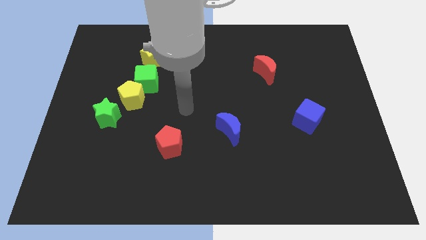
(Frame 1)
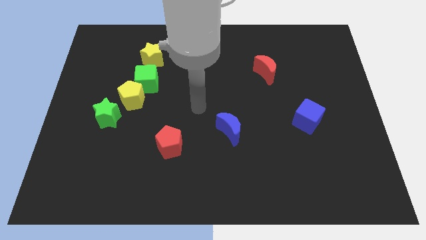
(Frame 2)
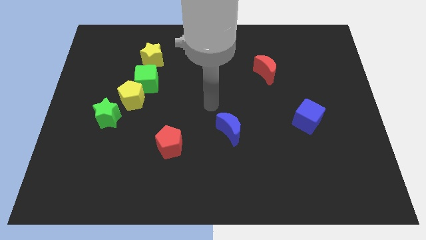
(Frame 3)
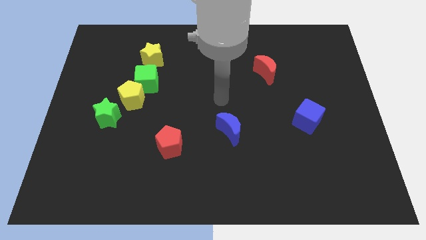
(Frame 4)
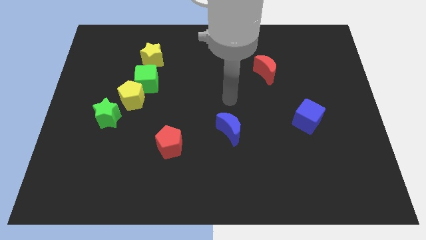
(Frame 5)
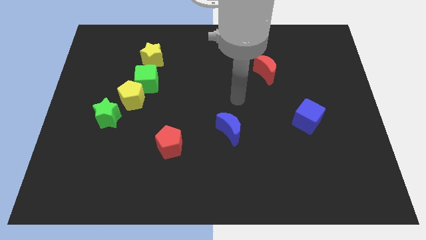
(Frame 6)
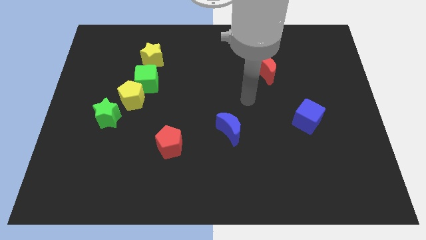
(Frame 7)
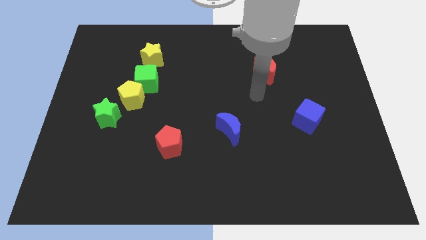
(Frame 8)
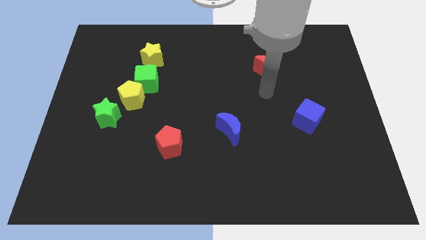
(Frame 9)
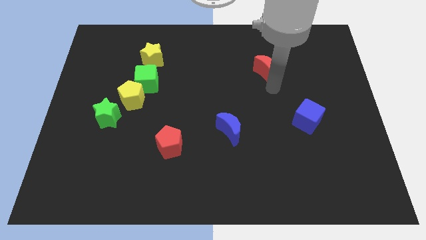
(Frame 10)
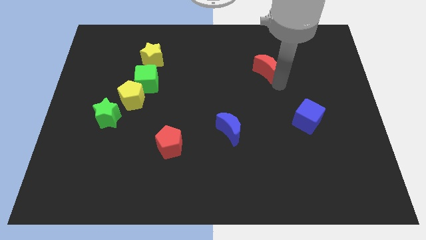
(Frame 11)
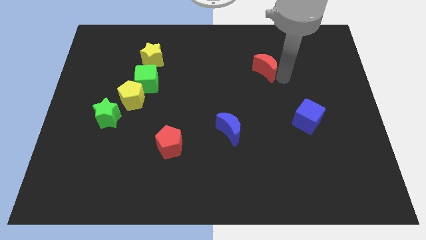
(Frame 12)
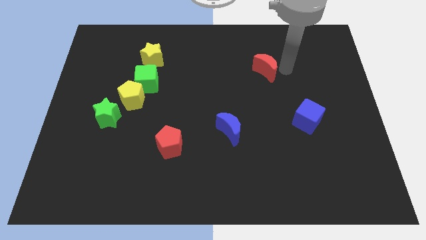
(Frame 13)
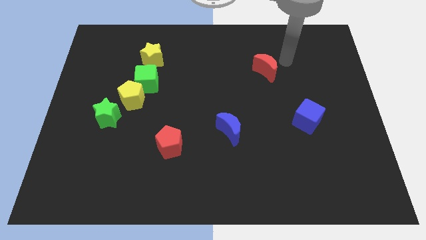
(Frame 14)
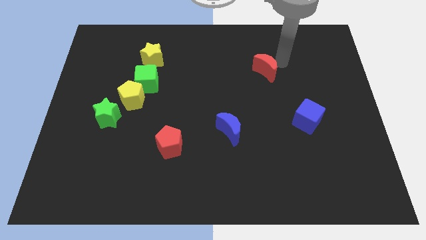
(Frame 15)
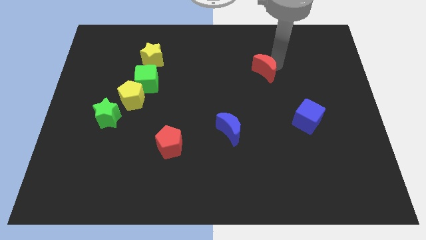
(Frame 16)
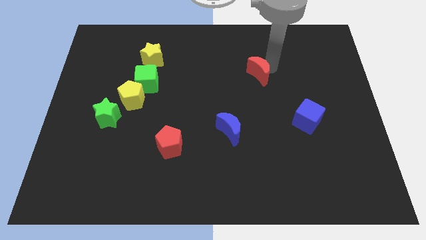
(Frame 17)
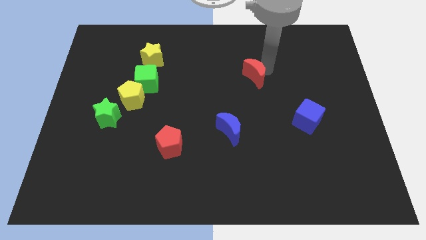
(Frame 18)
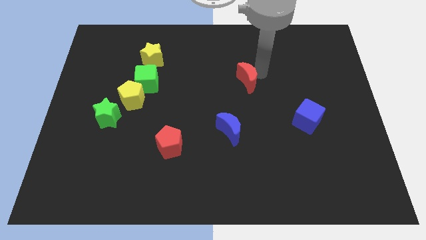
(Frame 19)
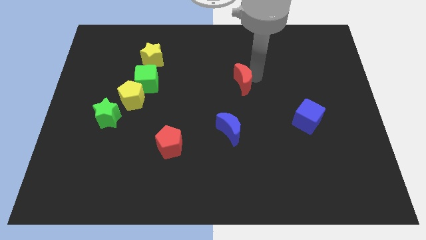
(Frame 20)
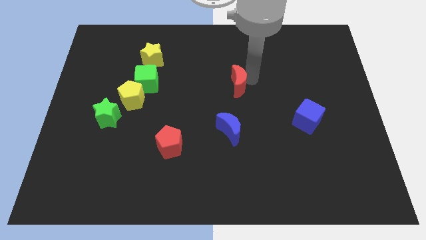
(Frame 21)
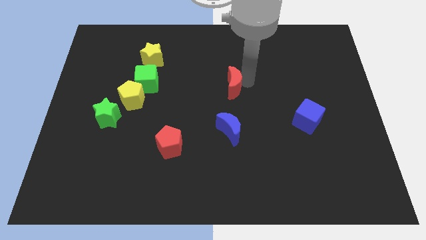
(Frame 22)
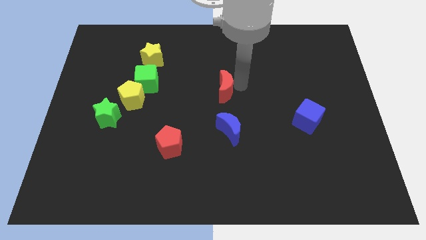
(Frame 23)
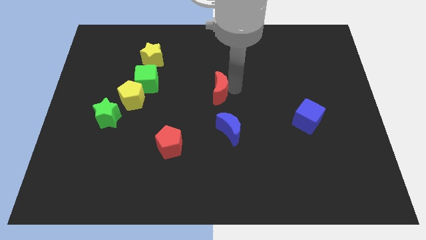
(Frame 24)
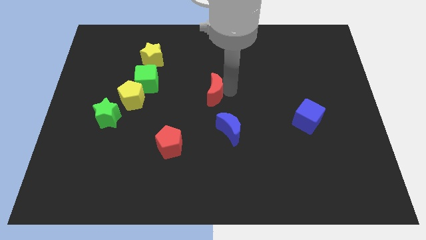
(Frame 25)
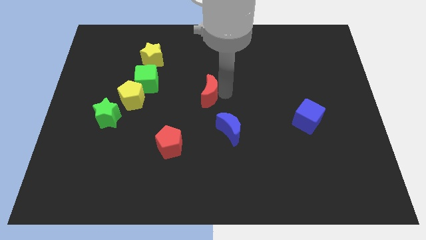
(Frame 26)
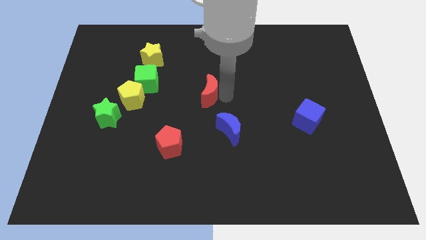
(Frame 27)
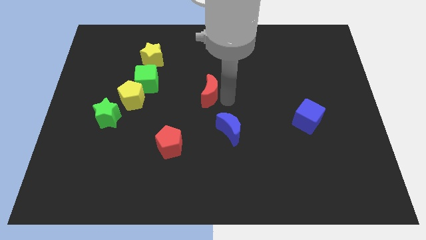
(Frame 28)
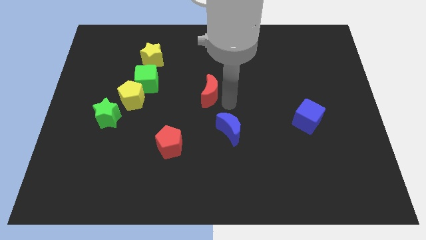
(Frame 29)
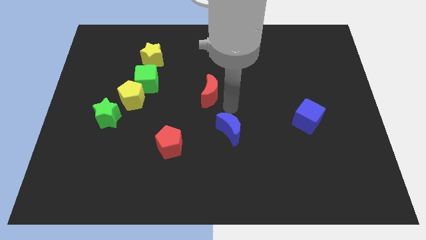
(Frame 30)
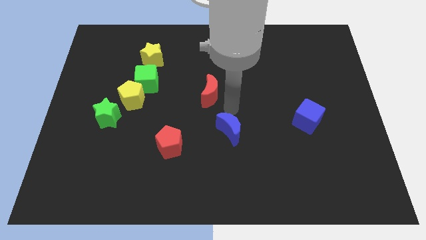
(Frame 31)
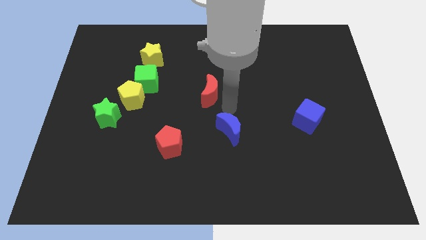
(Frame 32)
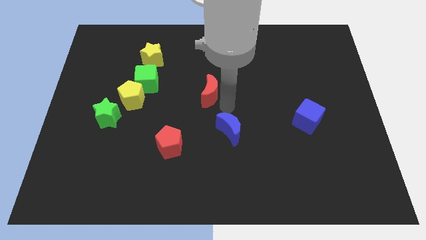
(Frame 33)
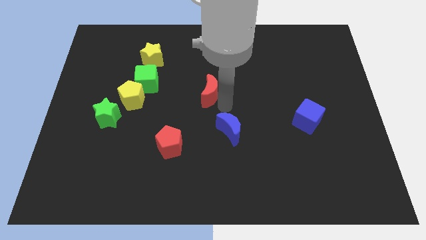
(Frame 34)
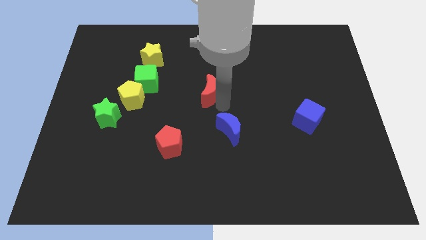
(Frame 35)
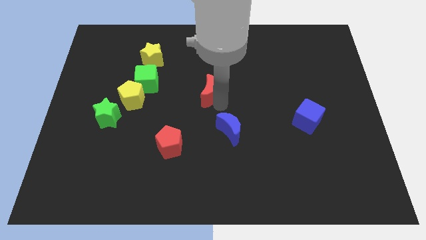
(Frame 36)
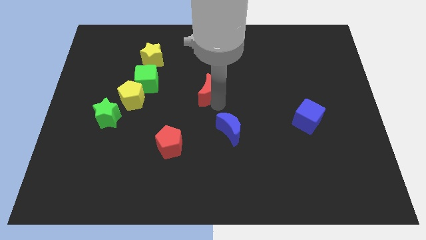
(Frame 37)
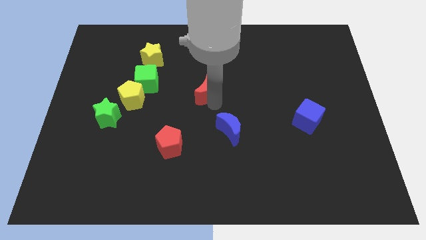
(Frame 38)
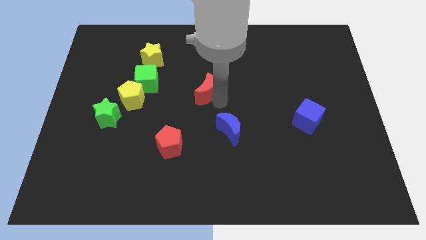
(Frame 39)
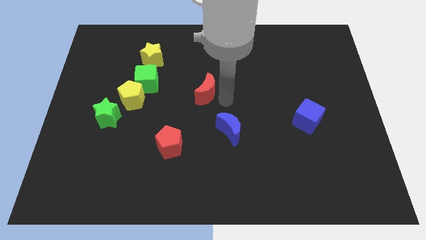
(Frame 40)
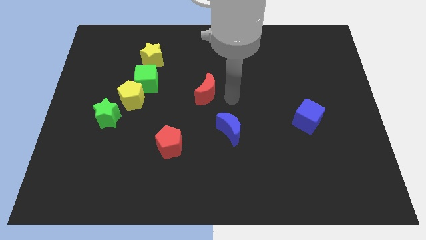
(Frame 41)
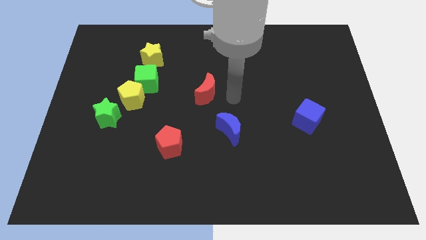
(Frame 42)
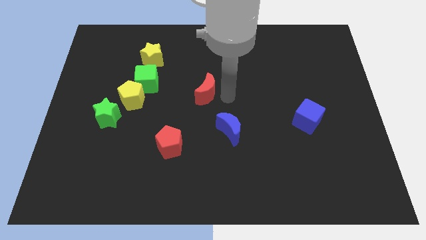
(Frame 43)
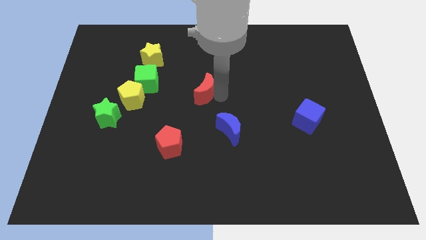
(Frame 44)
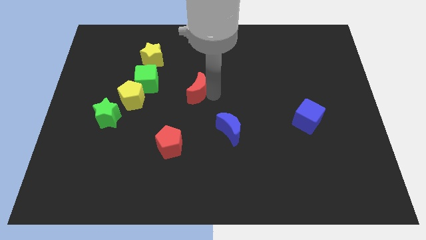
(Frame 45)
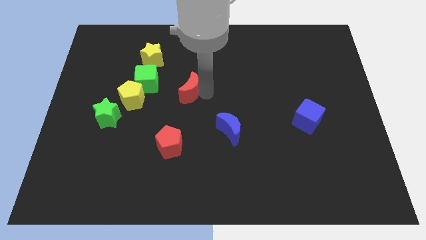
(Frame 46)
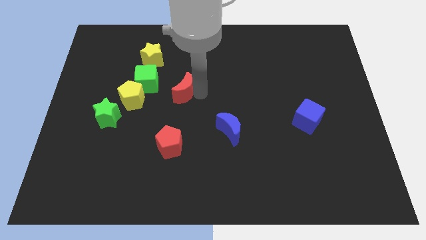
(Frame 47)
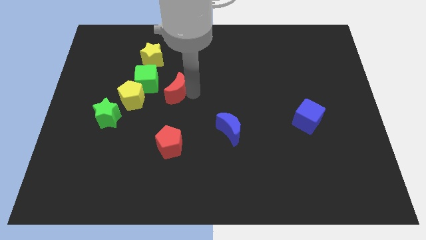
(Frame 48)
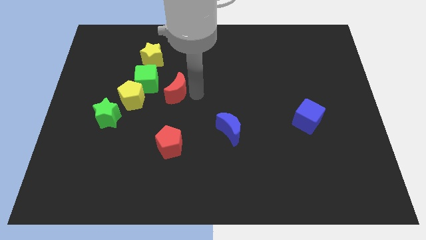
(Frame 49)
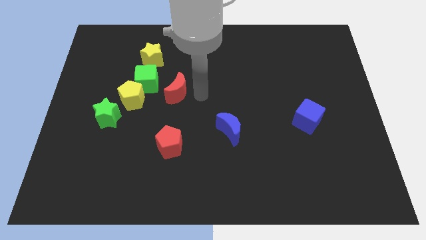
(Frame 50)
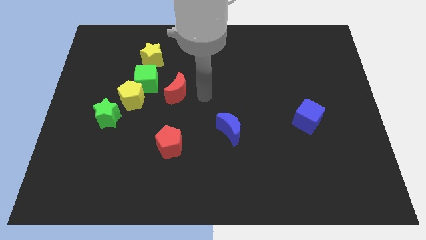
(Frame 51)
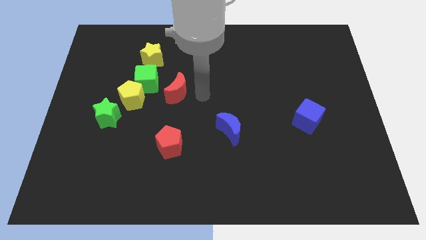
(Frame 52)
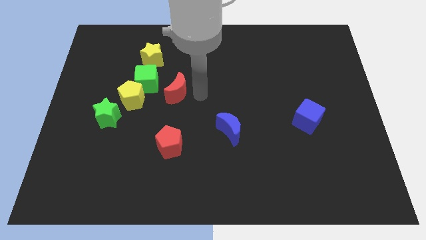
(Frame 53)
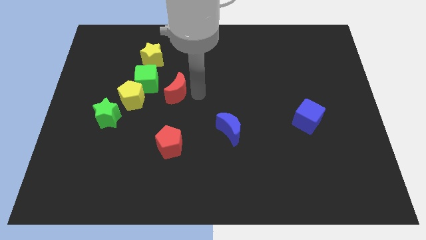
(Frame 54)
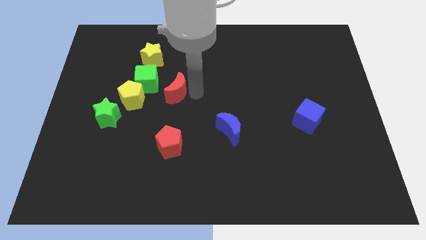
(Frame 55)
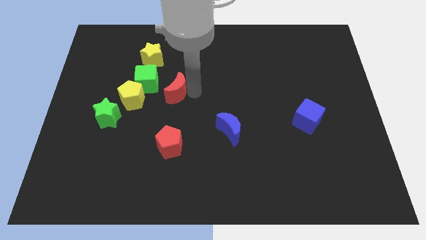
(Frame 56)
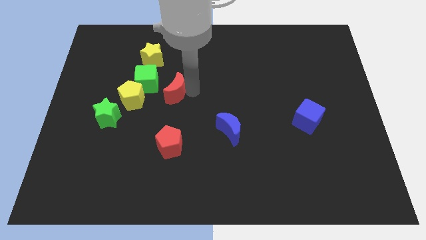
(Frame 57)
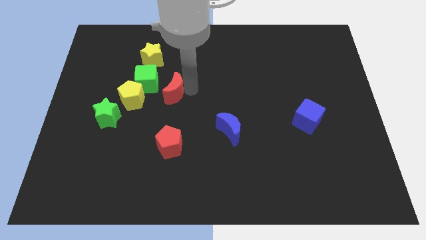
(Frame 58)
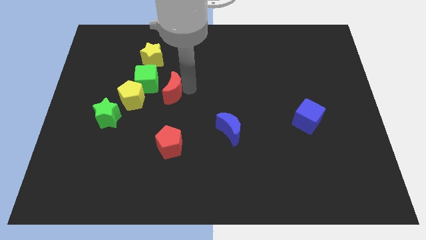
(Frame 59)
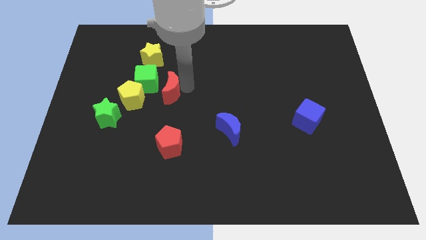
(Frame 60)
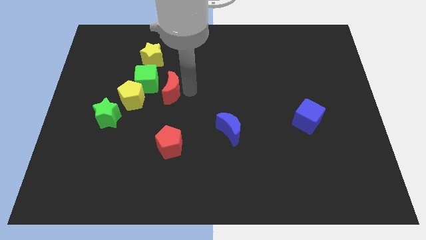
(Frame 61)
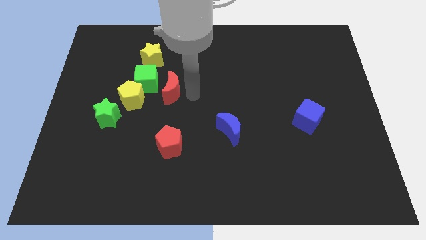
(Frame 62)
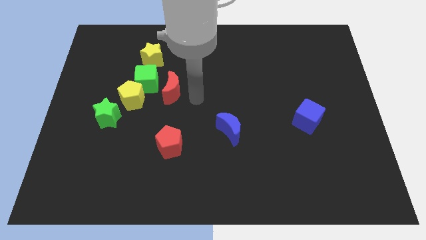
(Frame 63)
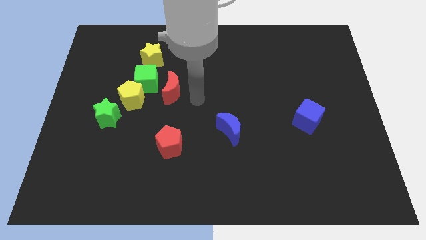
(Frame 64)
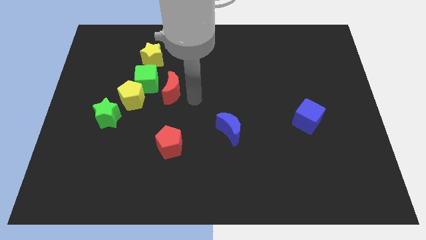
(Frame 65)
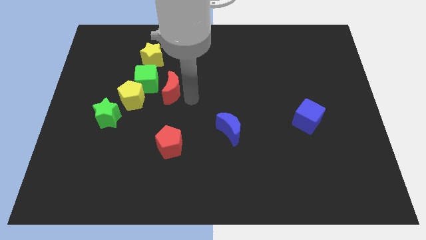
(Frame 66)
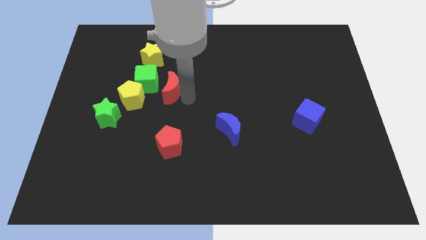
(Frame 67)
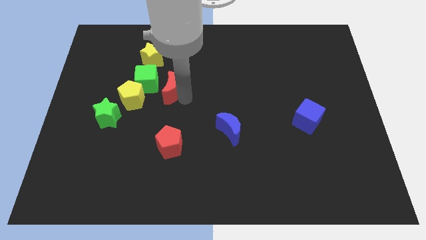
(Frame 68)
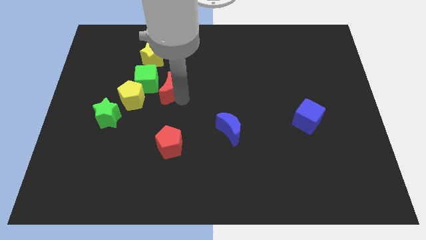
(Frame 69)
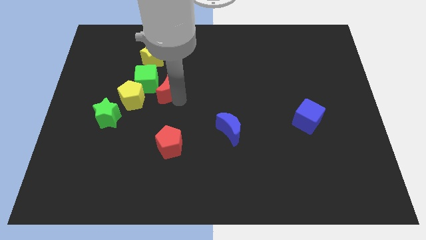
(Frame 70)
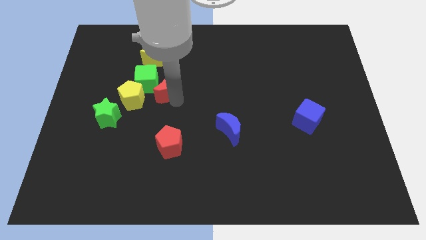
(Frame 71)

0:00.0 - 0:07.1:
push the red moon to the green cube
